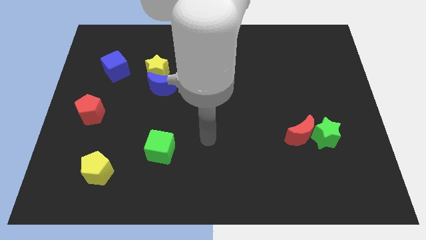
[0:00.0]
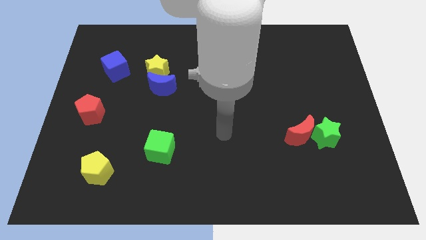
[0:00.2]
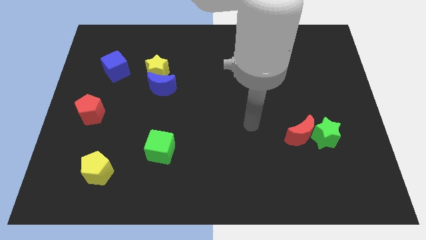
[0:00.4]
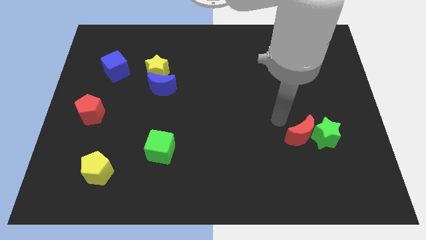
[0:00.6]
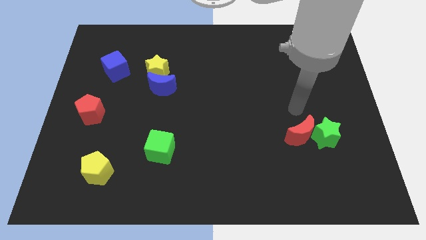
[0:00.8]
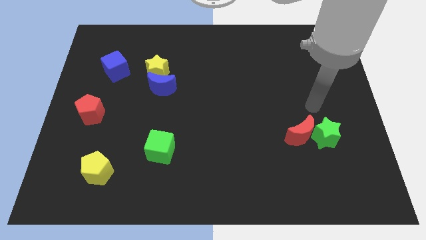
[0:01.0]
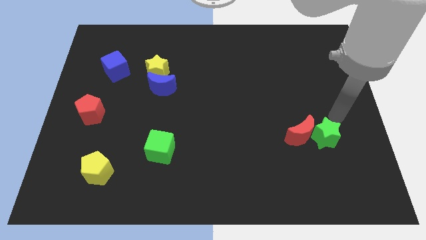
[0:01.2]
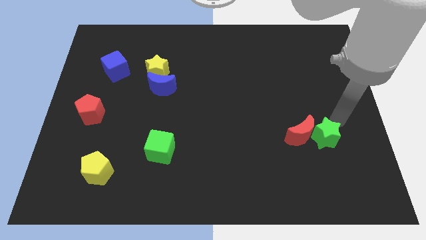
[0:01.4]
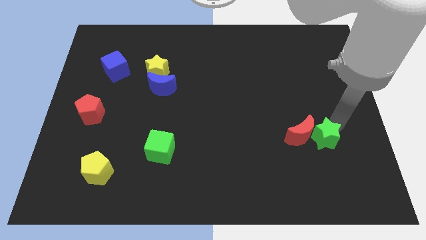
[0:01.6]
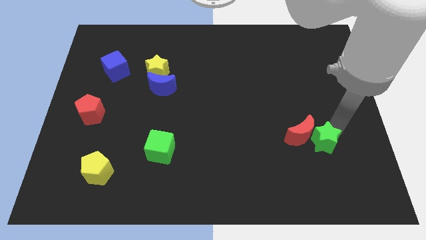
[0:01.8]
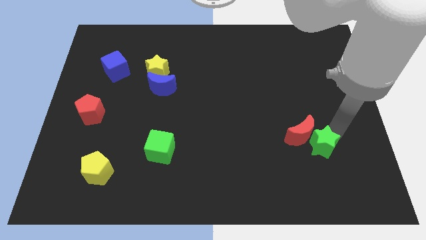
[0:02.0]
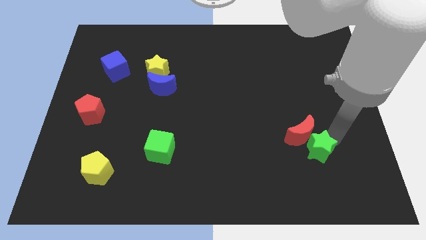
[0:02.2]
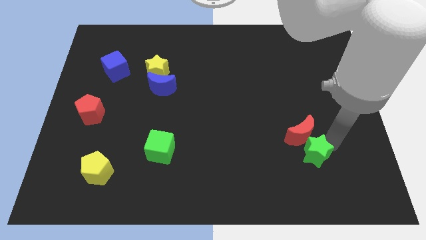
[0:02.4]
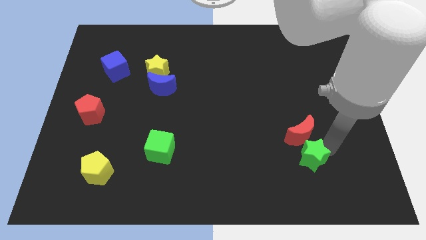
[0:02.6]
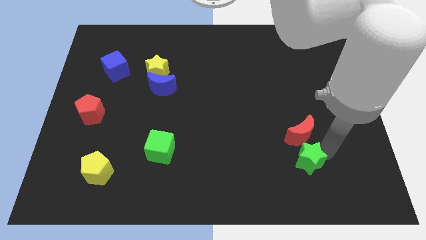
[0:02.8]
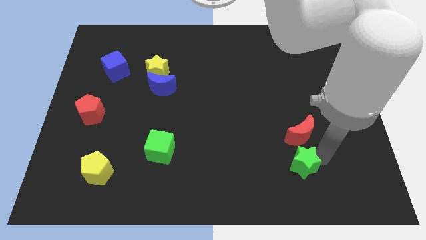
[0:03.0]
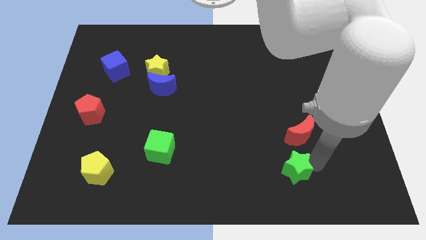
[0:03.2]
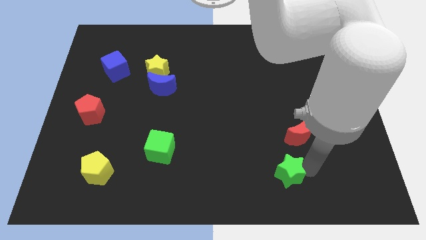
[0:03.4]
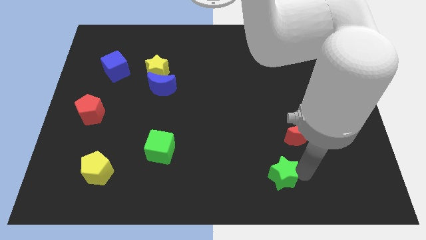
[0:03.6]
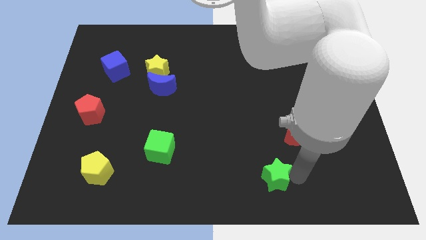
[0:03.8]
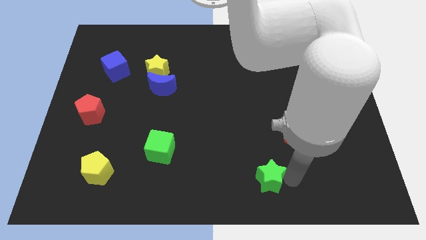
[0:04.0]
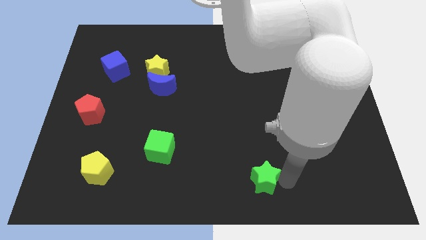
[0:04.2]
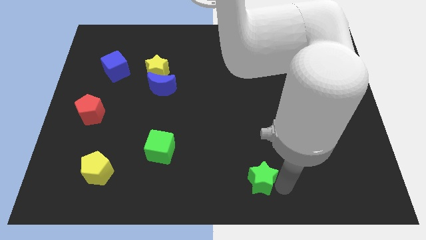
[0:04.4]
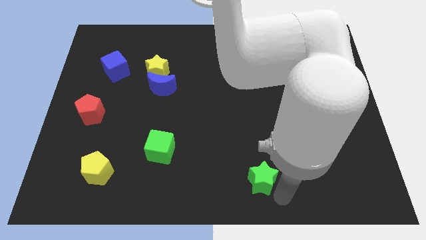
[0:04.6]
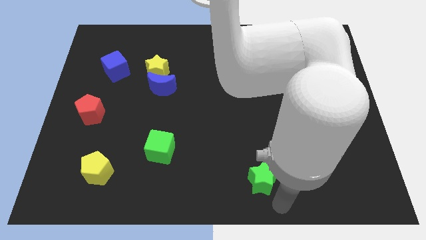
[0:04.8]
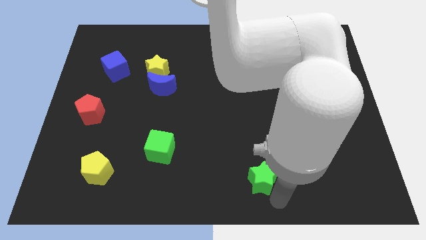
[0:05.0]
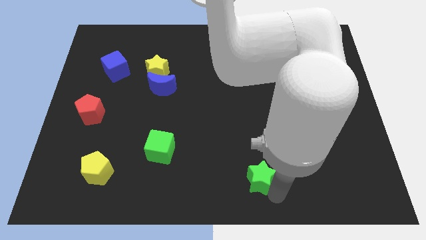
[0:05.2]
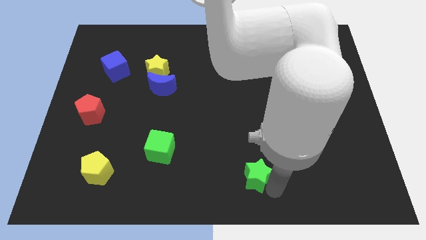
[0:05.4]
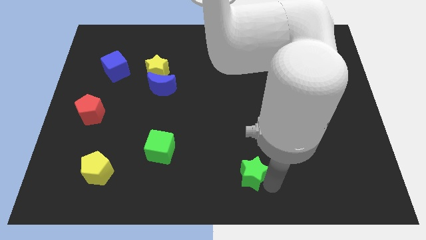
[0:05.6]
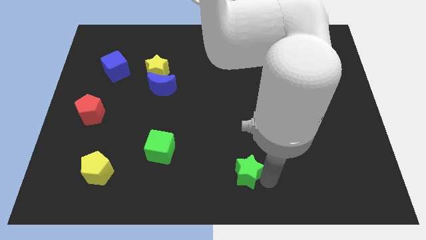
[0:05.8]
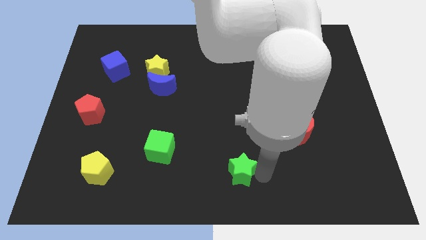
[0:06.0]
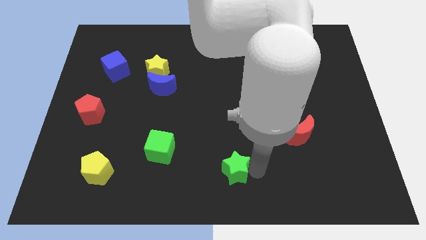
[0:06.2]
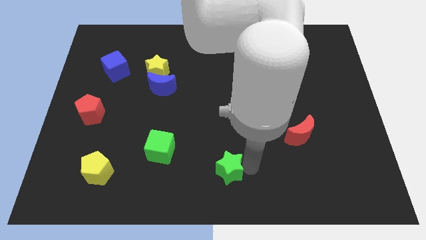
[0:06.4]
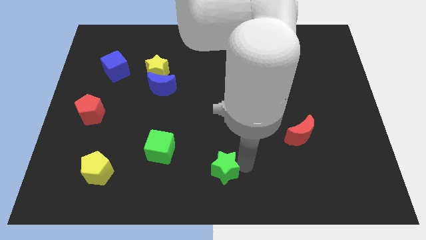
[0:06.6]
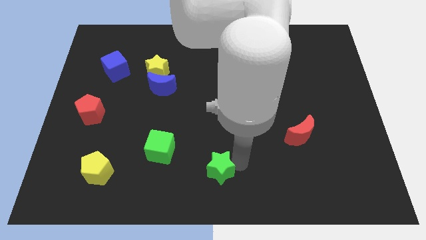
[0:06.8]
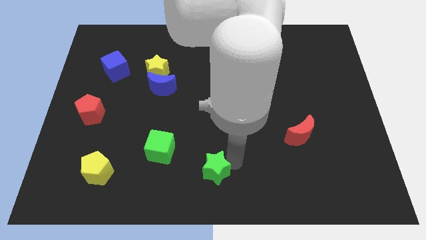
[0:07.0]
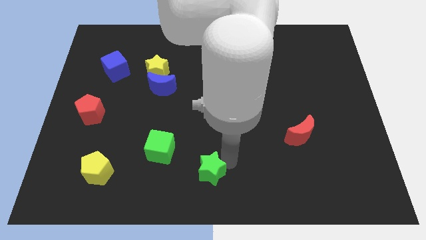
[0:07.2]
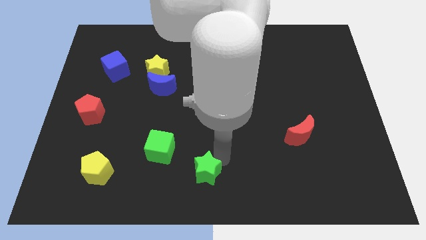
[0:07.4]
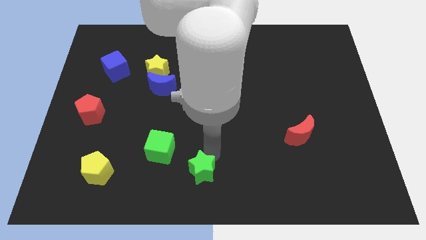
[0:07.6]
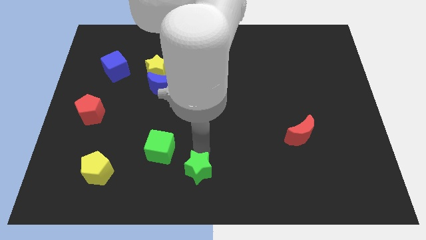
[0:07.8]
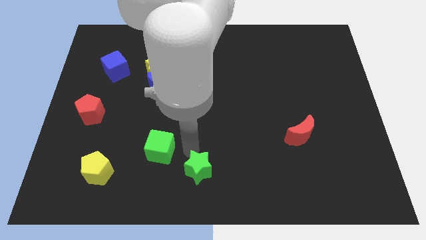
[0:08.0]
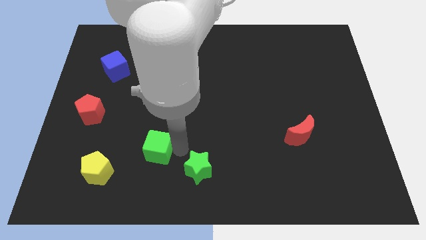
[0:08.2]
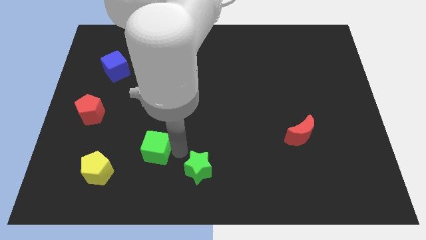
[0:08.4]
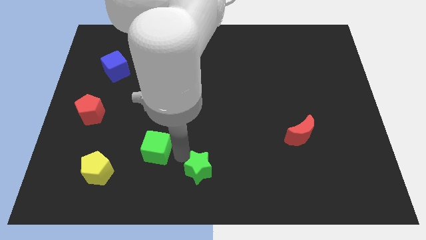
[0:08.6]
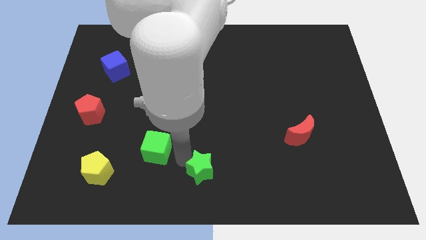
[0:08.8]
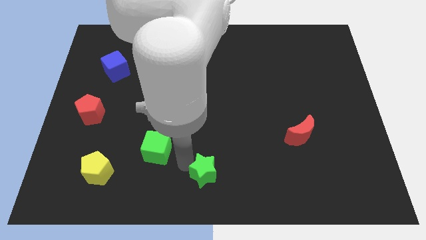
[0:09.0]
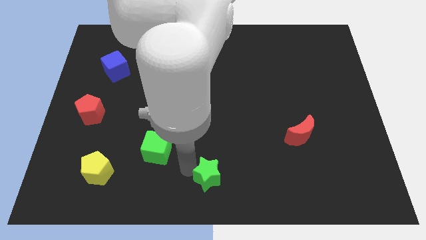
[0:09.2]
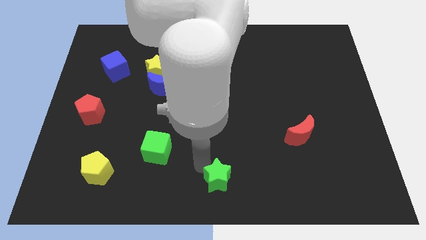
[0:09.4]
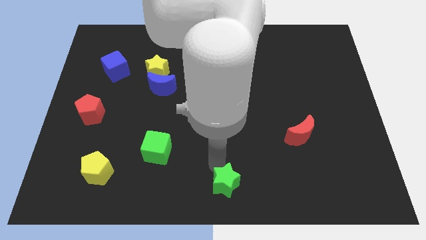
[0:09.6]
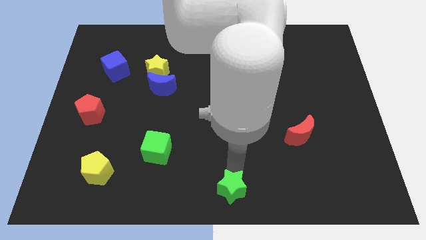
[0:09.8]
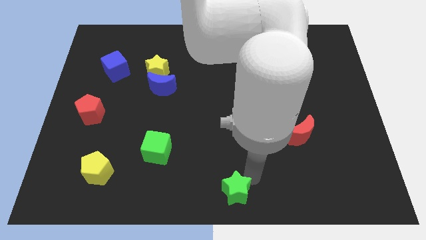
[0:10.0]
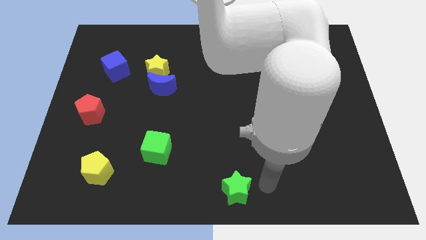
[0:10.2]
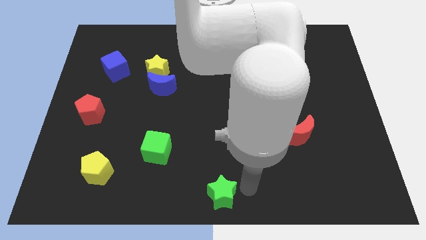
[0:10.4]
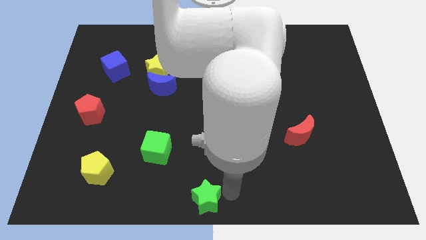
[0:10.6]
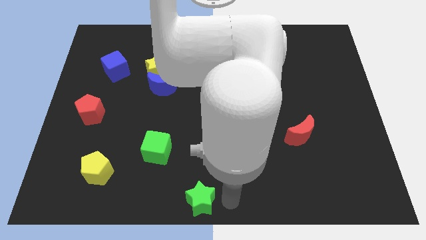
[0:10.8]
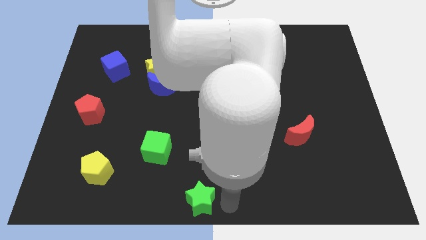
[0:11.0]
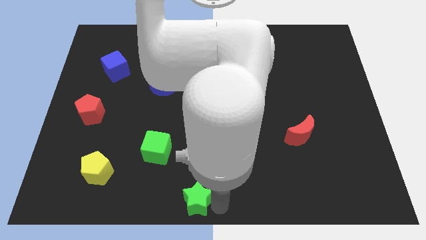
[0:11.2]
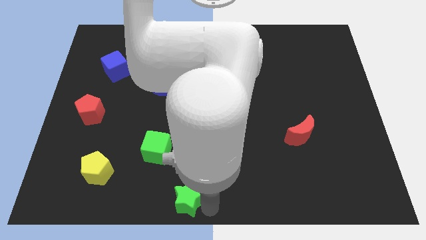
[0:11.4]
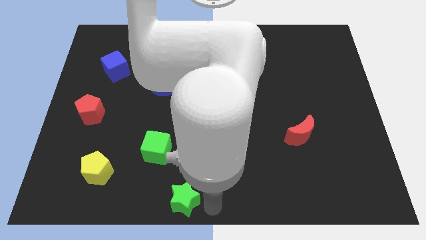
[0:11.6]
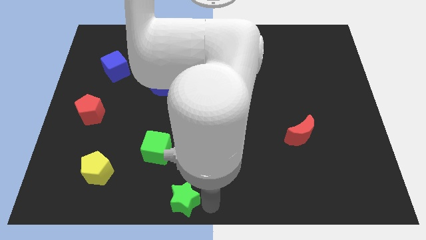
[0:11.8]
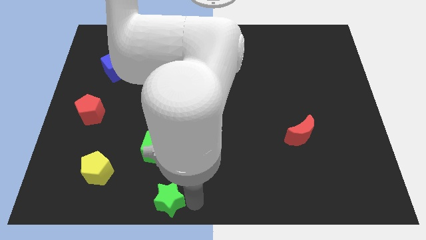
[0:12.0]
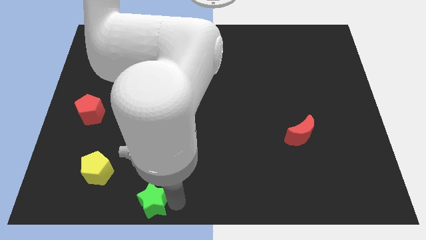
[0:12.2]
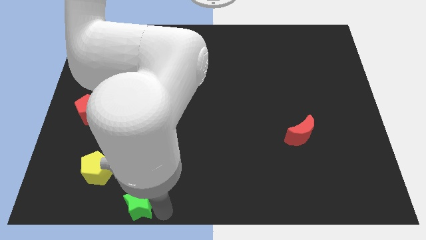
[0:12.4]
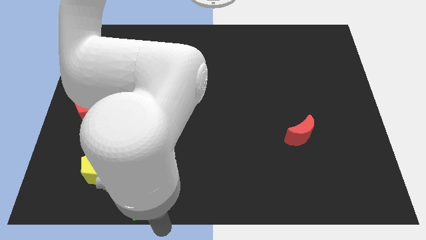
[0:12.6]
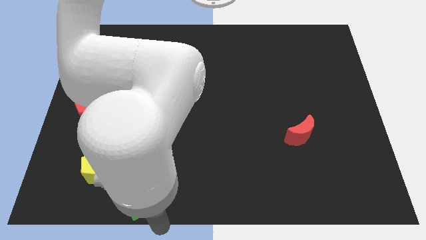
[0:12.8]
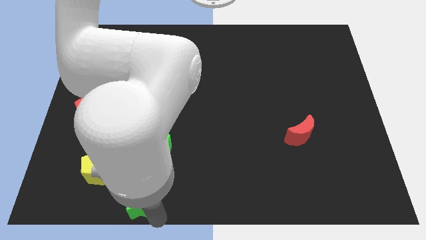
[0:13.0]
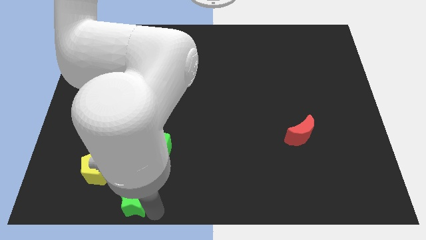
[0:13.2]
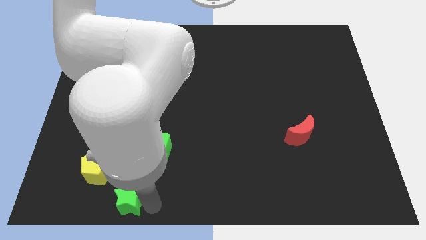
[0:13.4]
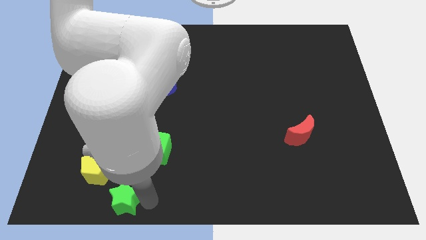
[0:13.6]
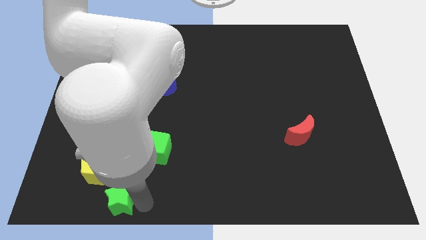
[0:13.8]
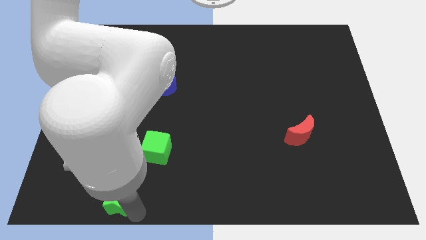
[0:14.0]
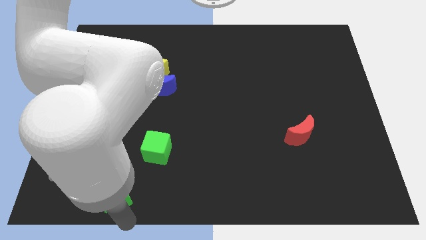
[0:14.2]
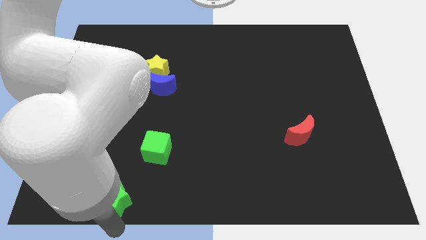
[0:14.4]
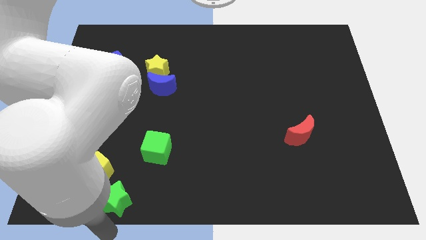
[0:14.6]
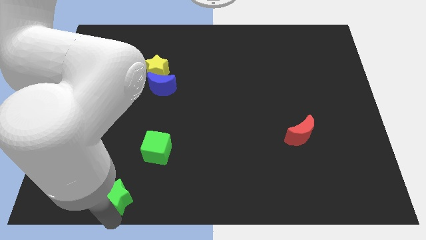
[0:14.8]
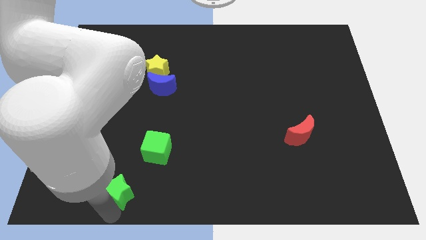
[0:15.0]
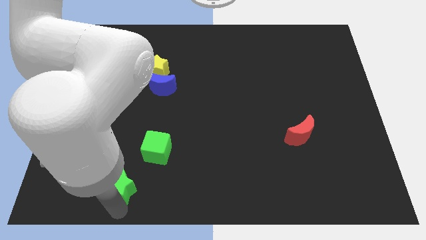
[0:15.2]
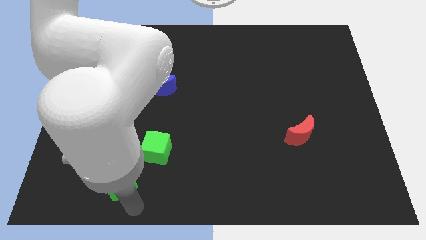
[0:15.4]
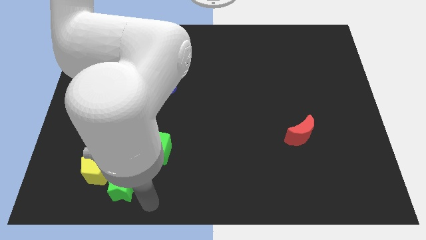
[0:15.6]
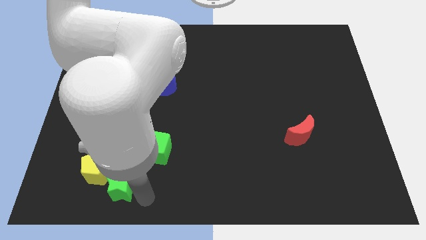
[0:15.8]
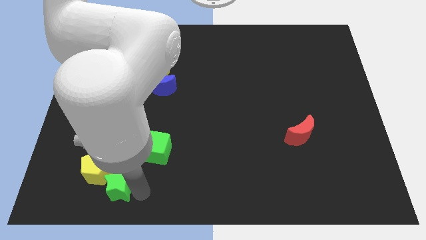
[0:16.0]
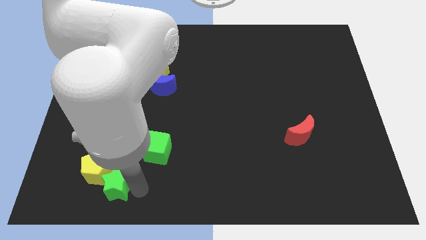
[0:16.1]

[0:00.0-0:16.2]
put the green star to the yellow pentagon
